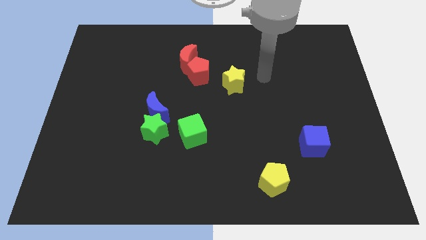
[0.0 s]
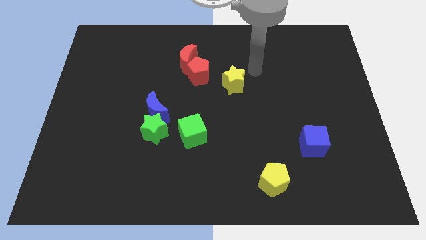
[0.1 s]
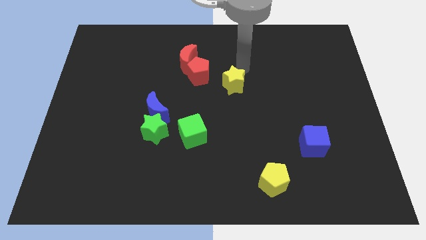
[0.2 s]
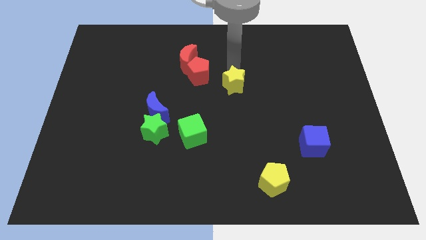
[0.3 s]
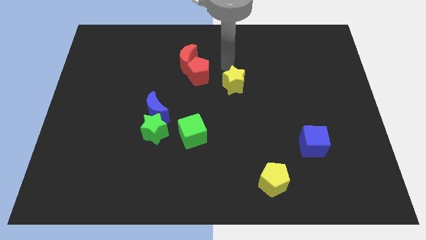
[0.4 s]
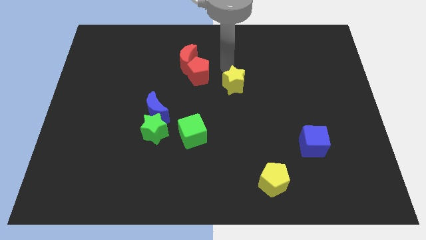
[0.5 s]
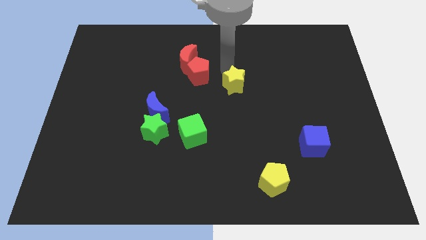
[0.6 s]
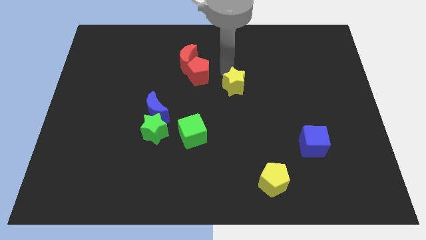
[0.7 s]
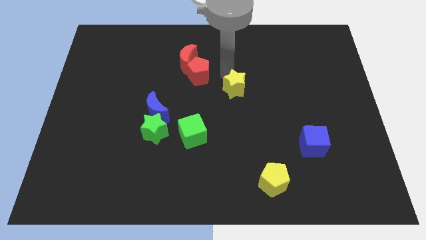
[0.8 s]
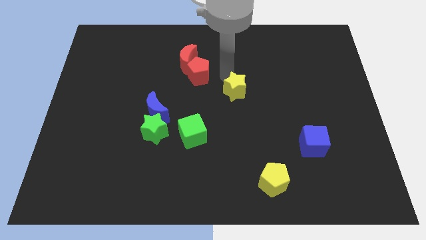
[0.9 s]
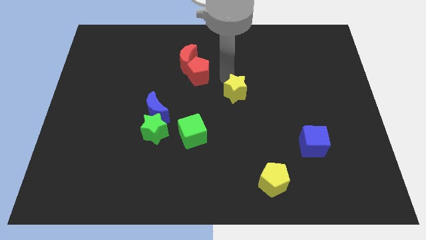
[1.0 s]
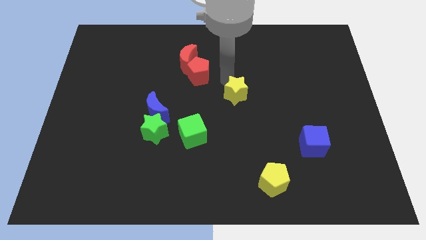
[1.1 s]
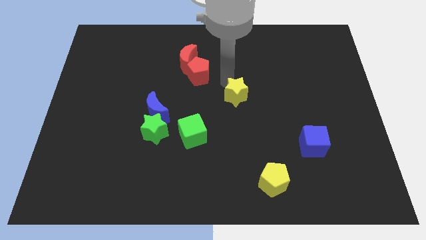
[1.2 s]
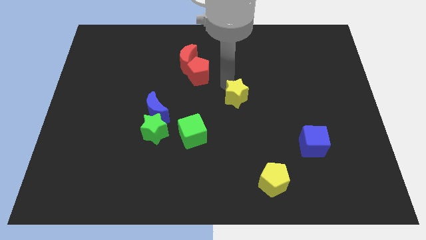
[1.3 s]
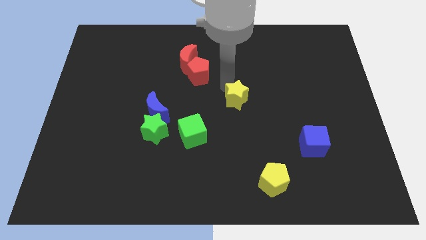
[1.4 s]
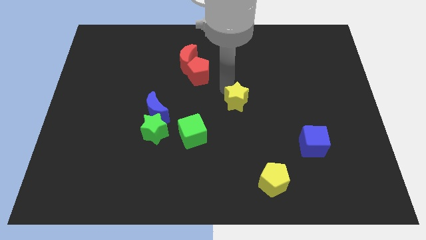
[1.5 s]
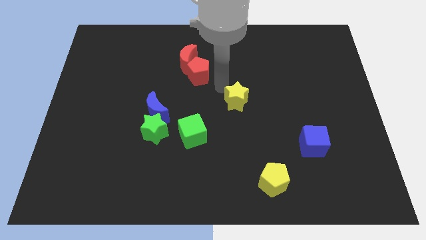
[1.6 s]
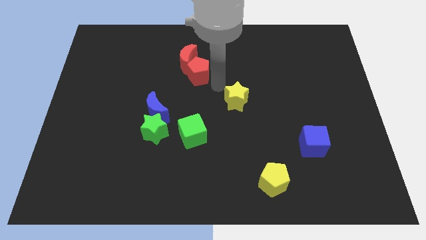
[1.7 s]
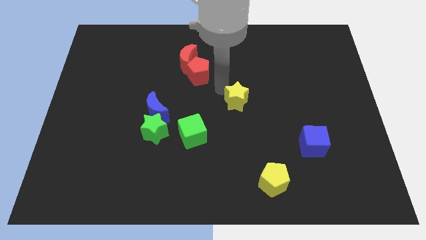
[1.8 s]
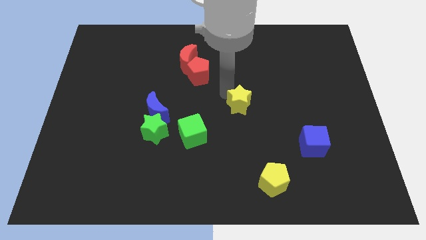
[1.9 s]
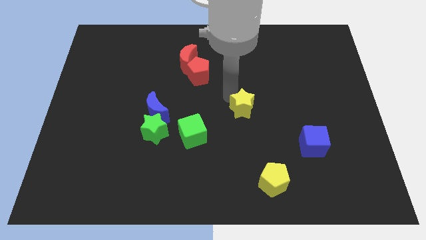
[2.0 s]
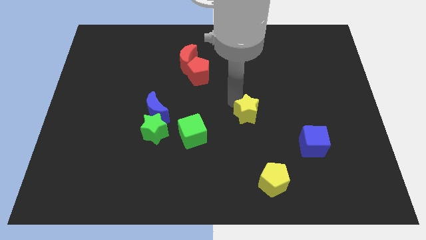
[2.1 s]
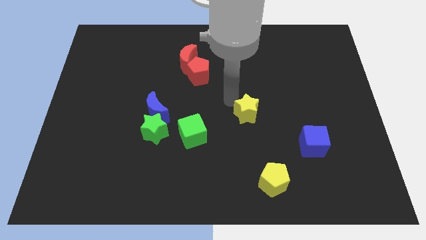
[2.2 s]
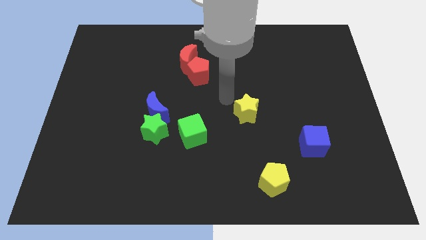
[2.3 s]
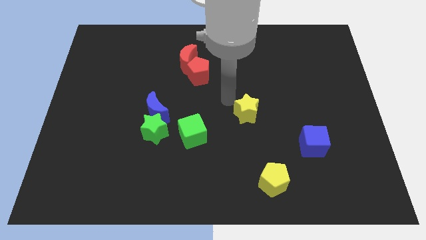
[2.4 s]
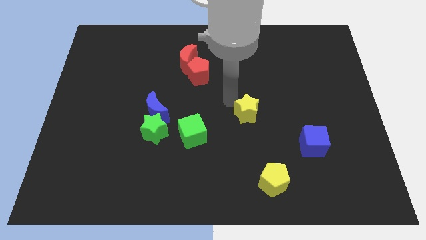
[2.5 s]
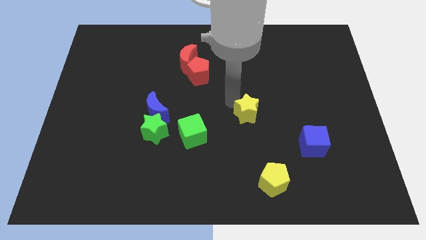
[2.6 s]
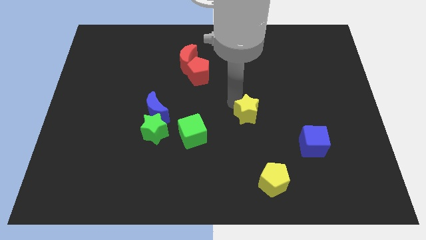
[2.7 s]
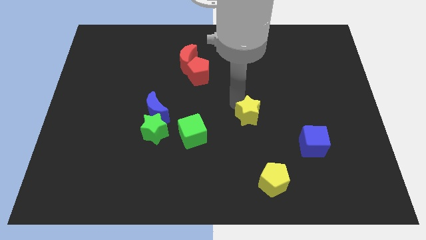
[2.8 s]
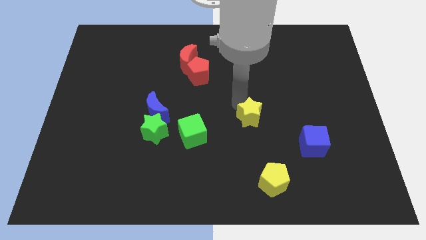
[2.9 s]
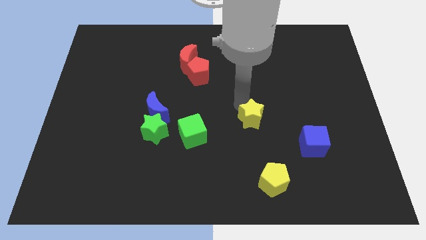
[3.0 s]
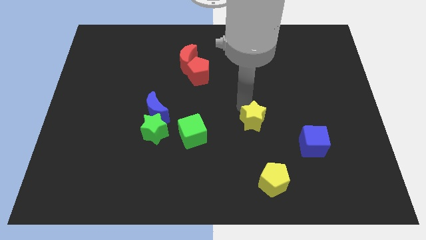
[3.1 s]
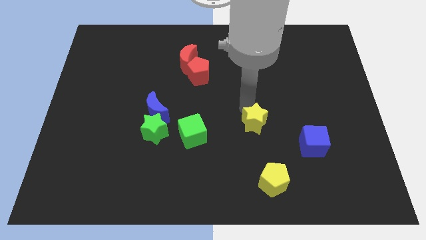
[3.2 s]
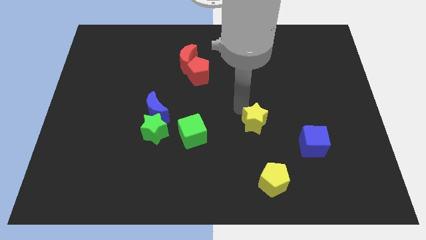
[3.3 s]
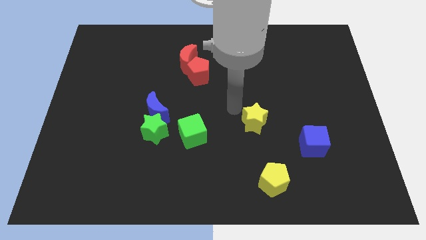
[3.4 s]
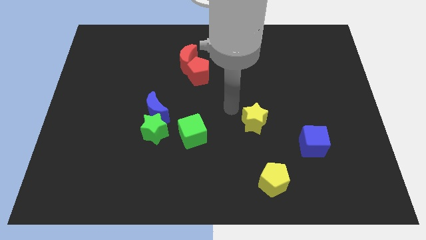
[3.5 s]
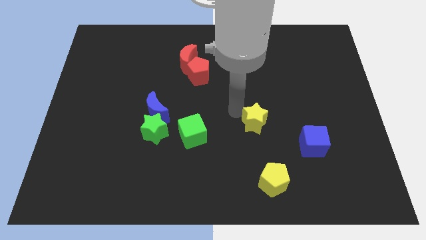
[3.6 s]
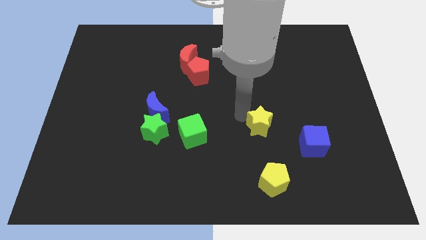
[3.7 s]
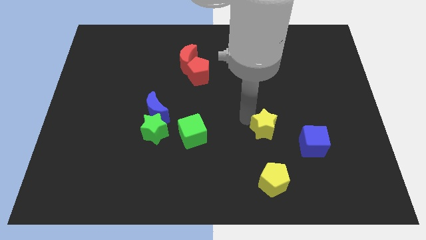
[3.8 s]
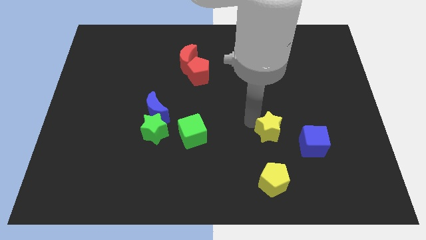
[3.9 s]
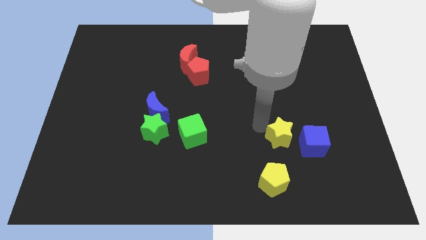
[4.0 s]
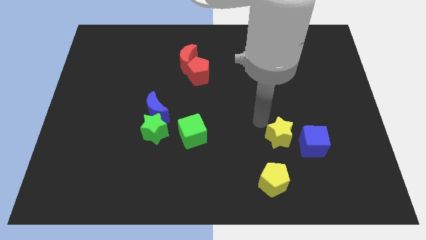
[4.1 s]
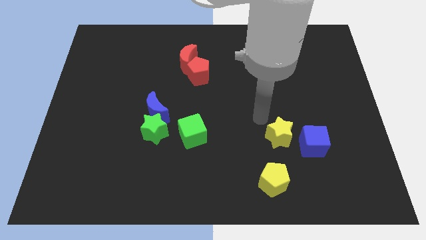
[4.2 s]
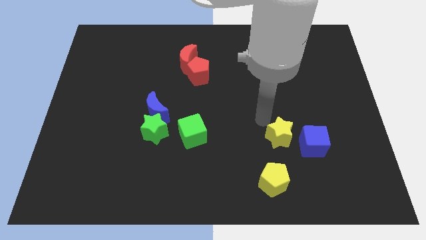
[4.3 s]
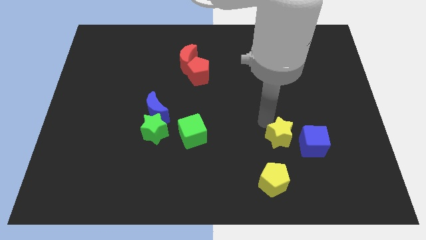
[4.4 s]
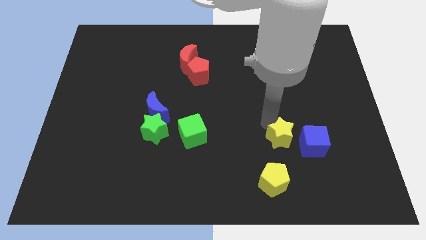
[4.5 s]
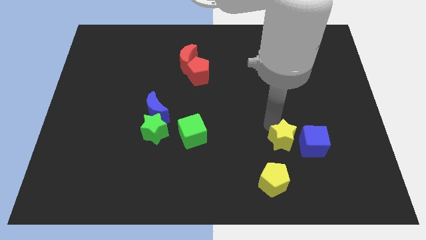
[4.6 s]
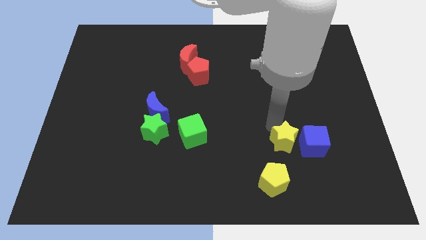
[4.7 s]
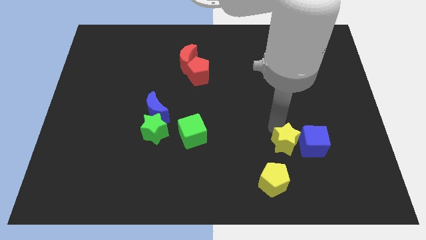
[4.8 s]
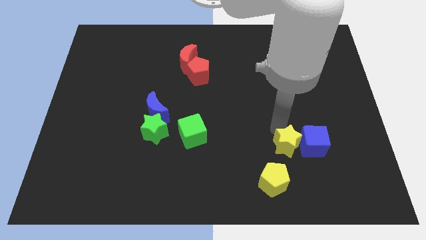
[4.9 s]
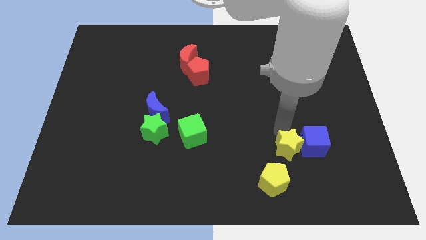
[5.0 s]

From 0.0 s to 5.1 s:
slide the yellow star diagonally down and right

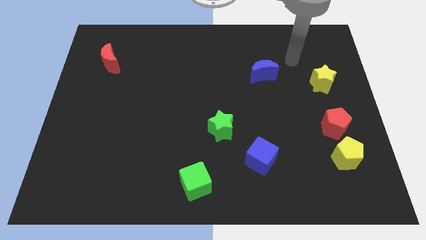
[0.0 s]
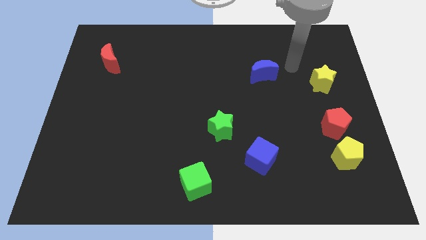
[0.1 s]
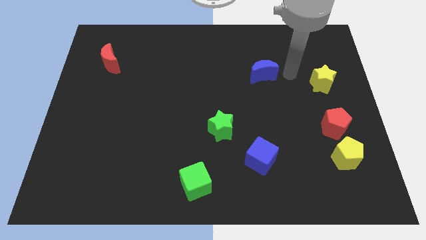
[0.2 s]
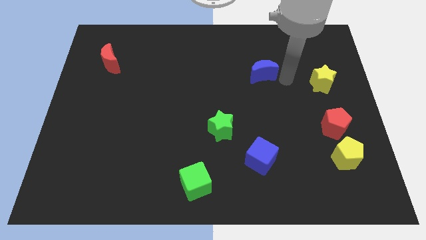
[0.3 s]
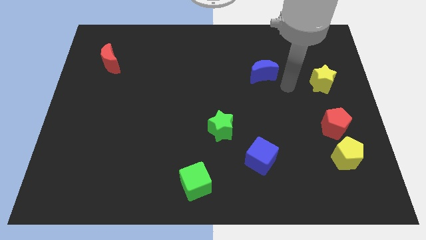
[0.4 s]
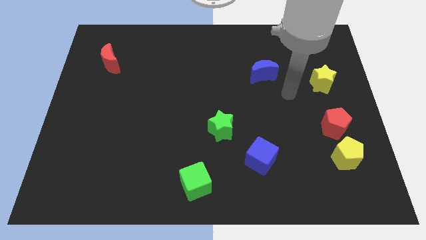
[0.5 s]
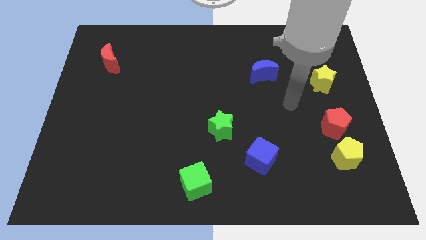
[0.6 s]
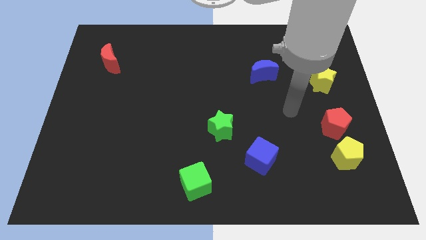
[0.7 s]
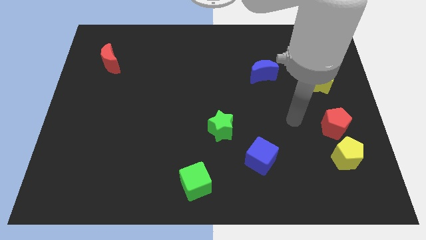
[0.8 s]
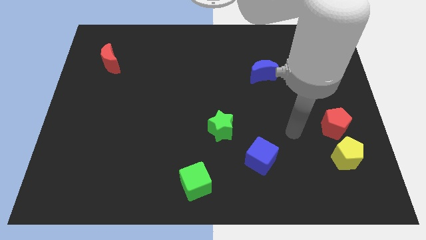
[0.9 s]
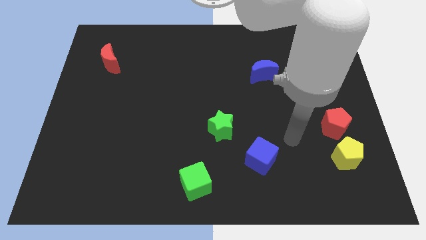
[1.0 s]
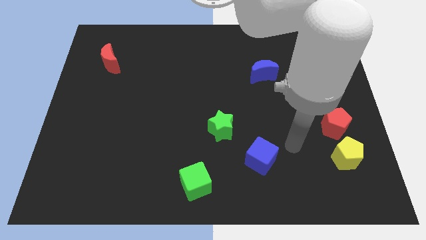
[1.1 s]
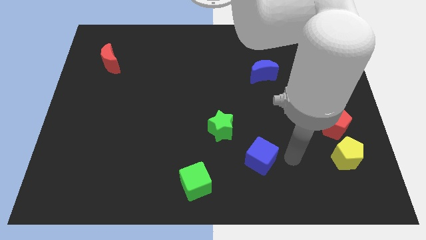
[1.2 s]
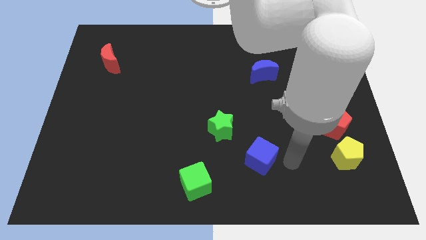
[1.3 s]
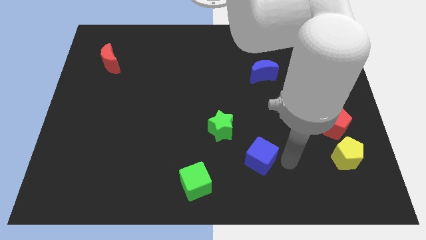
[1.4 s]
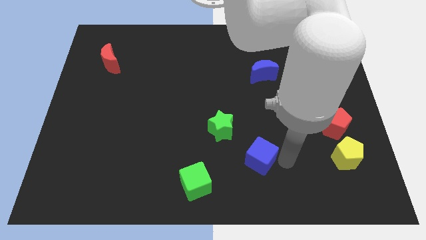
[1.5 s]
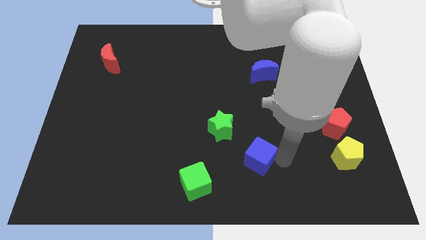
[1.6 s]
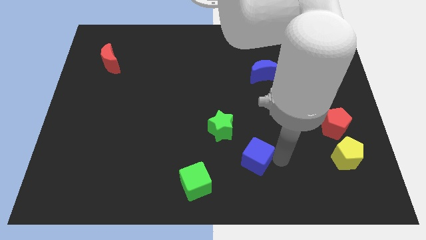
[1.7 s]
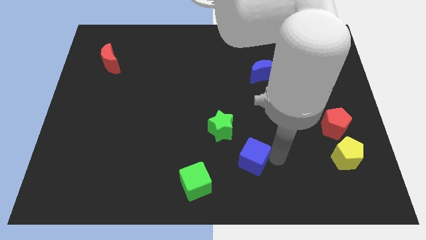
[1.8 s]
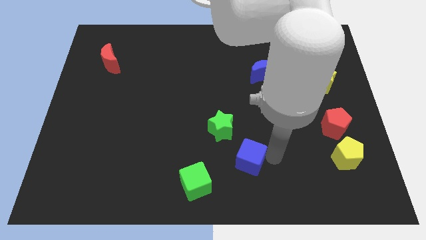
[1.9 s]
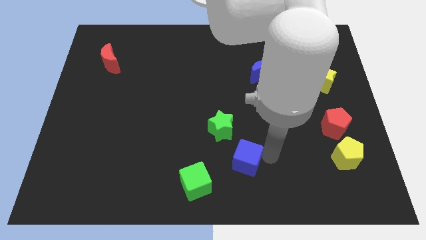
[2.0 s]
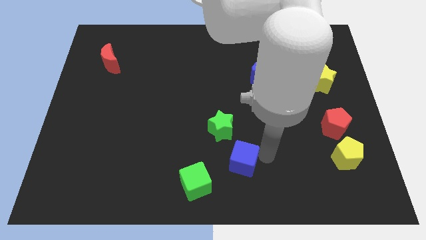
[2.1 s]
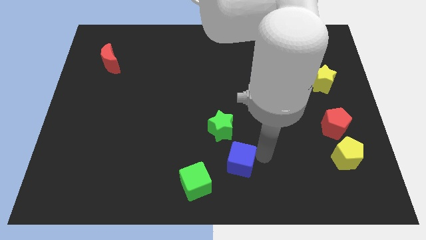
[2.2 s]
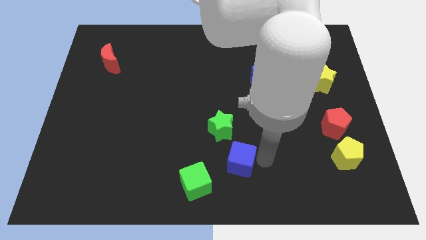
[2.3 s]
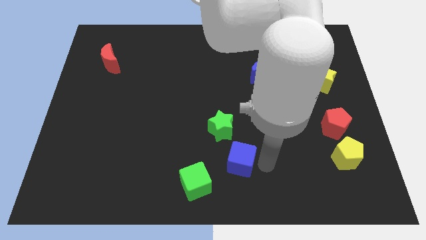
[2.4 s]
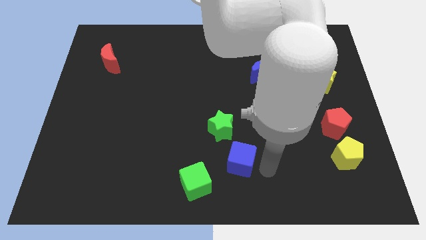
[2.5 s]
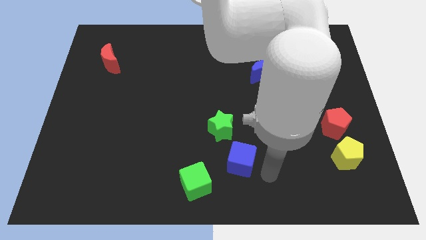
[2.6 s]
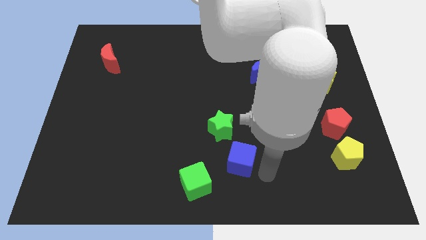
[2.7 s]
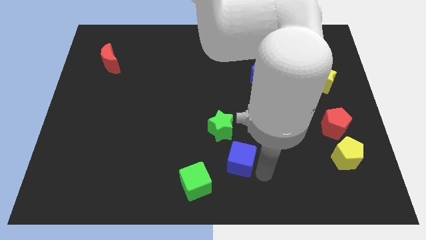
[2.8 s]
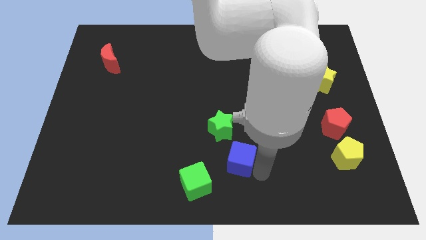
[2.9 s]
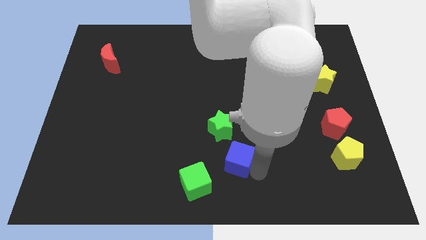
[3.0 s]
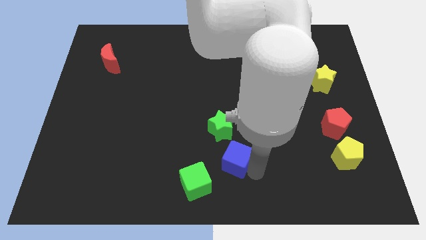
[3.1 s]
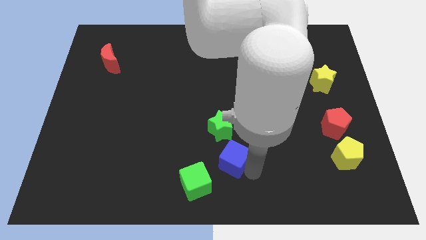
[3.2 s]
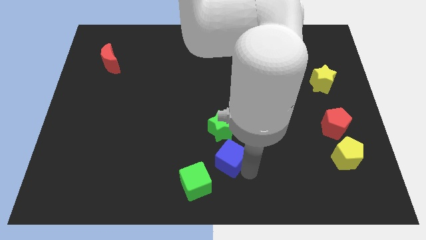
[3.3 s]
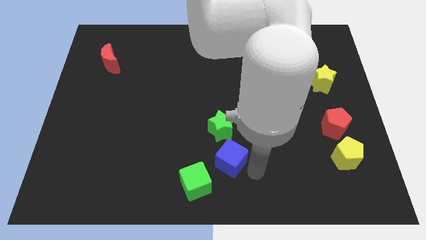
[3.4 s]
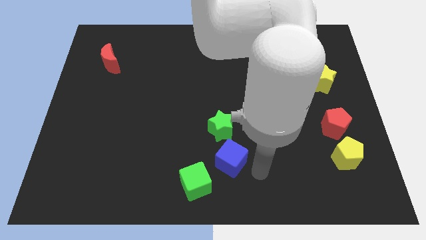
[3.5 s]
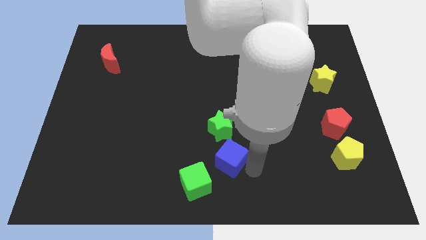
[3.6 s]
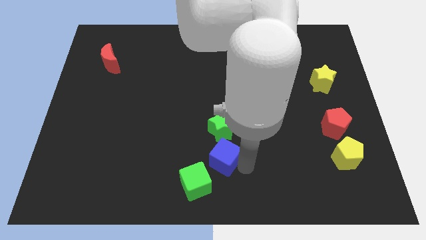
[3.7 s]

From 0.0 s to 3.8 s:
slightly slide the blue cube to the left
